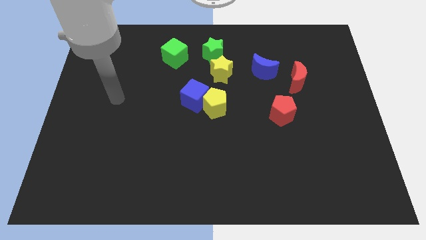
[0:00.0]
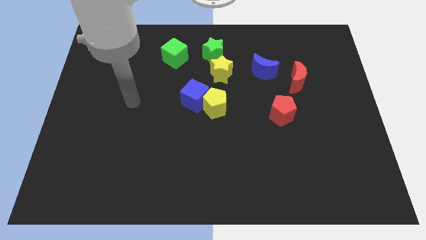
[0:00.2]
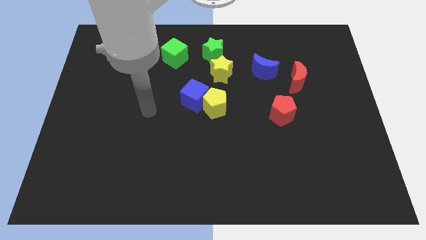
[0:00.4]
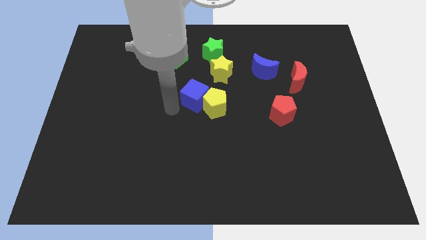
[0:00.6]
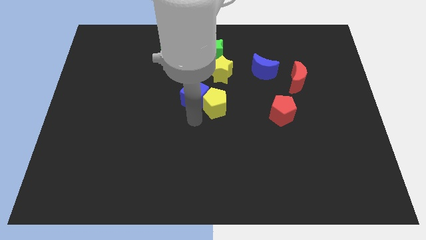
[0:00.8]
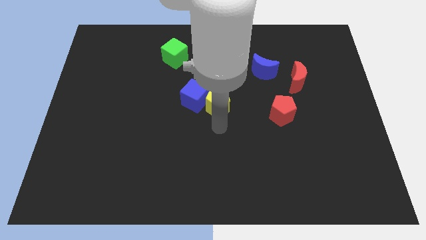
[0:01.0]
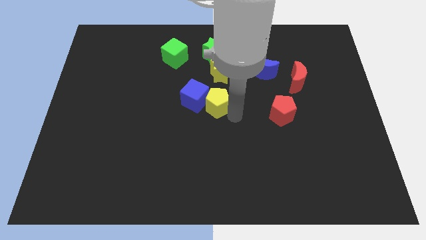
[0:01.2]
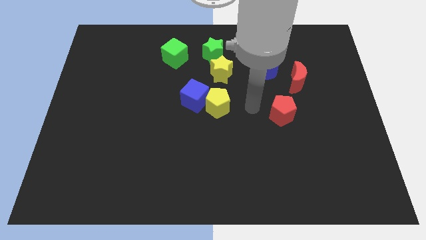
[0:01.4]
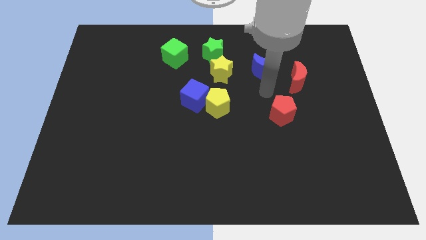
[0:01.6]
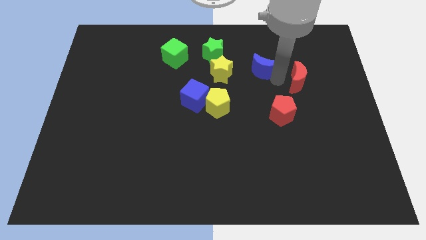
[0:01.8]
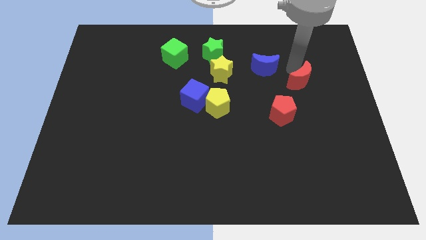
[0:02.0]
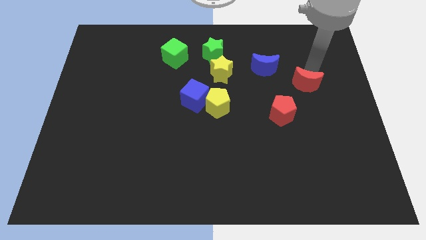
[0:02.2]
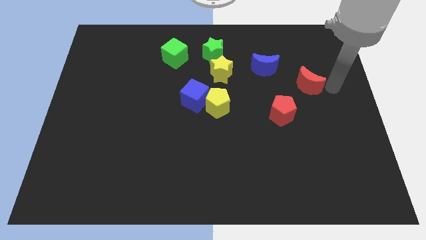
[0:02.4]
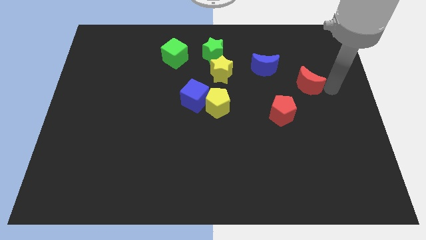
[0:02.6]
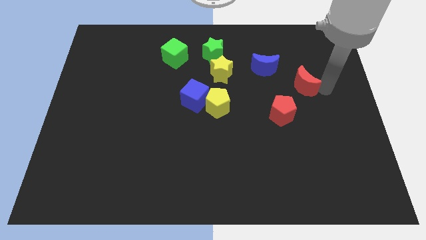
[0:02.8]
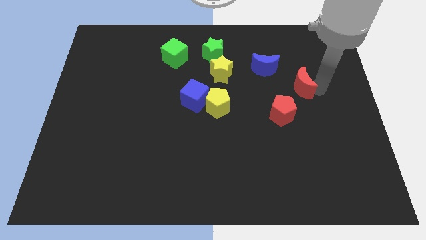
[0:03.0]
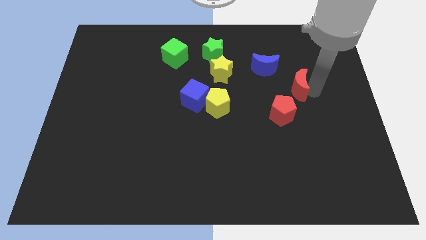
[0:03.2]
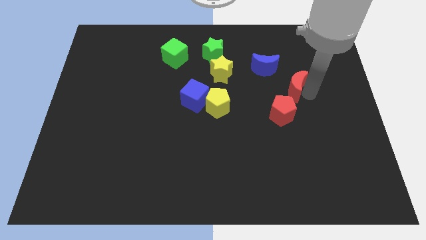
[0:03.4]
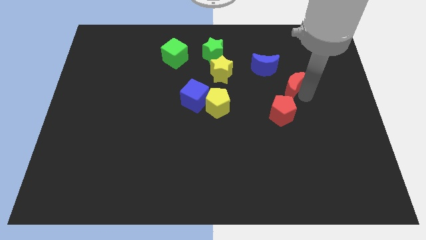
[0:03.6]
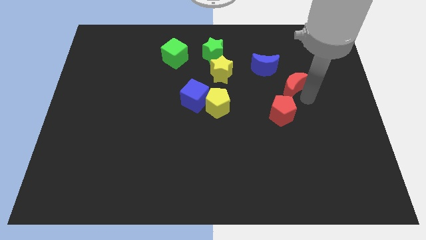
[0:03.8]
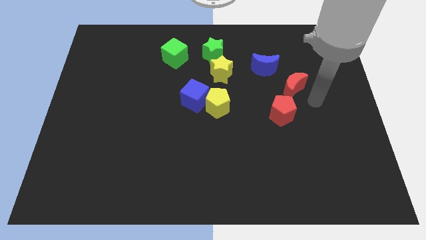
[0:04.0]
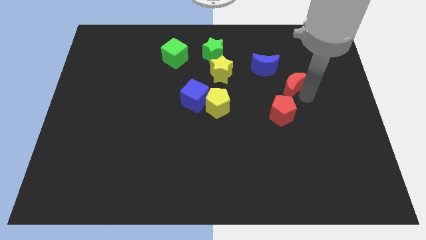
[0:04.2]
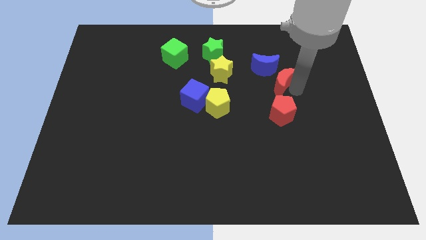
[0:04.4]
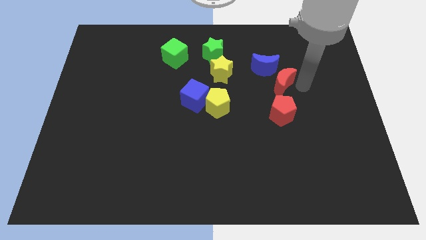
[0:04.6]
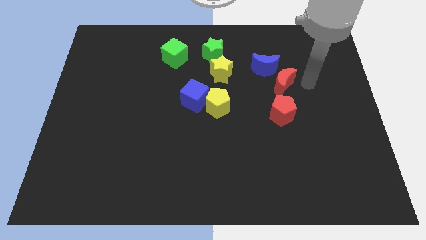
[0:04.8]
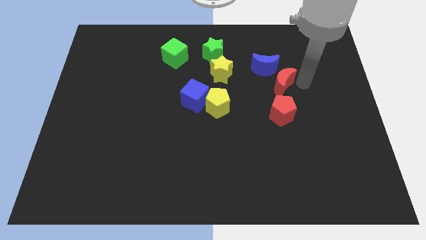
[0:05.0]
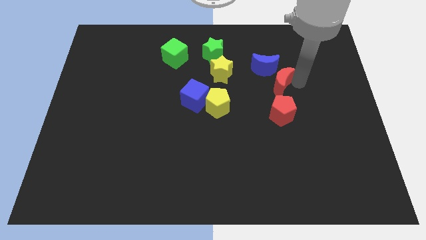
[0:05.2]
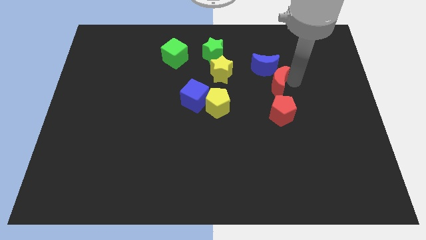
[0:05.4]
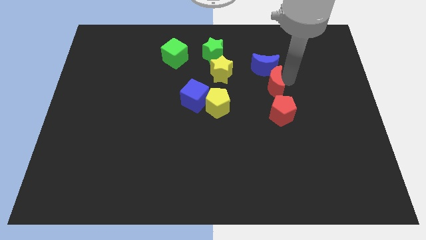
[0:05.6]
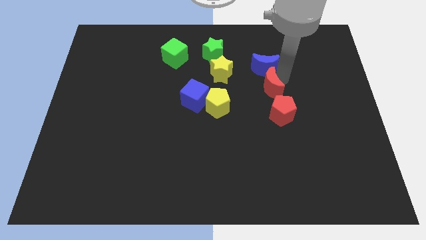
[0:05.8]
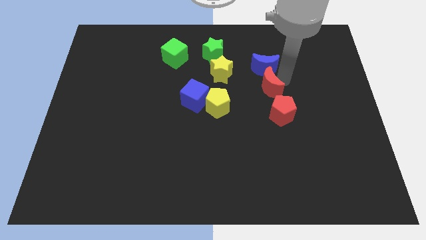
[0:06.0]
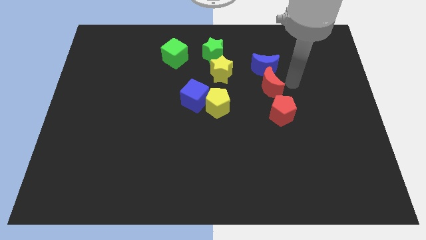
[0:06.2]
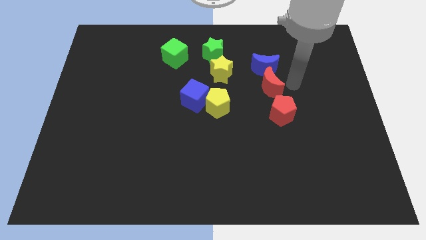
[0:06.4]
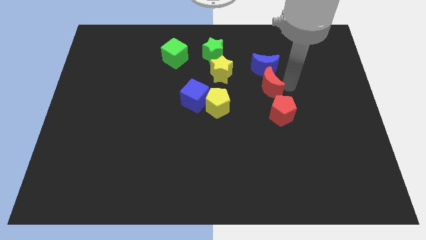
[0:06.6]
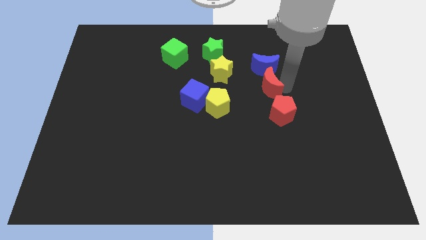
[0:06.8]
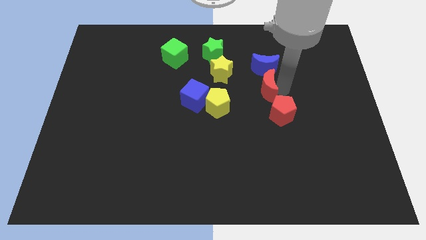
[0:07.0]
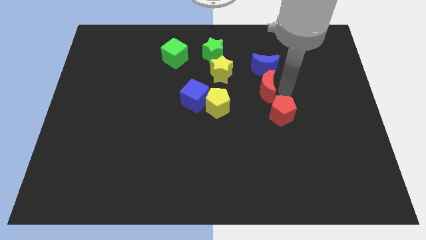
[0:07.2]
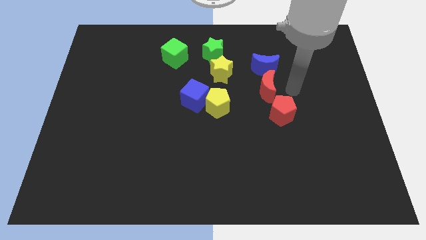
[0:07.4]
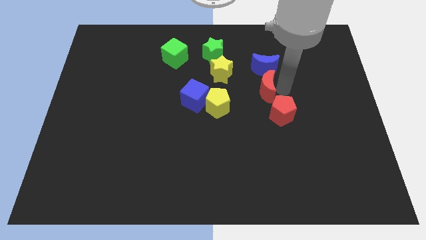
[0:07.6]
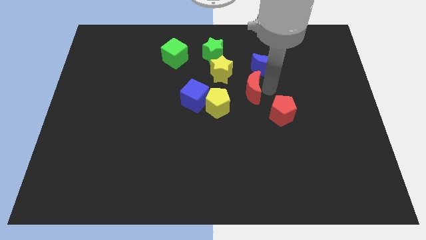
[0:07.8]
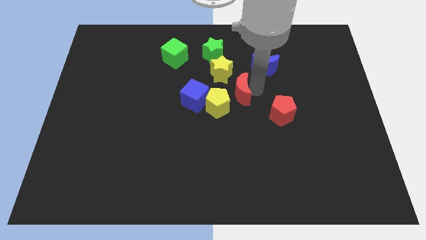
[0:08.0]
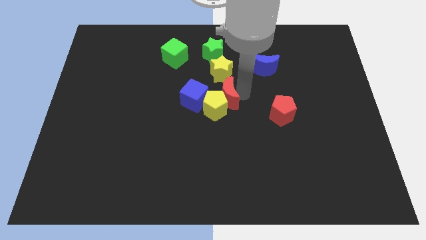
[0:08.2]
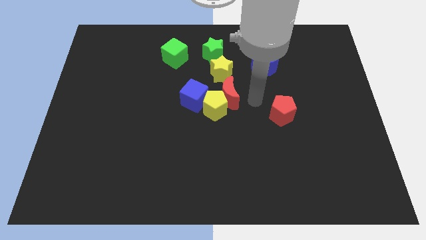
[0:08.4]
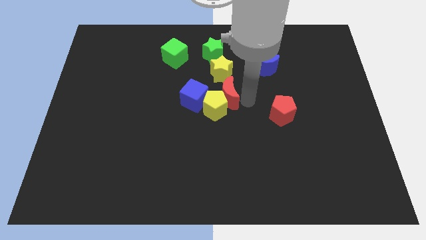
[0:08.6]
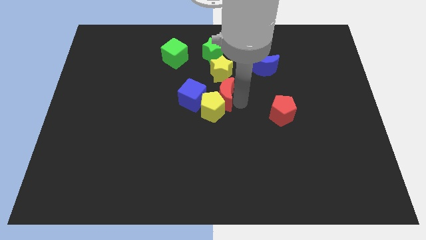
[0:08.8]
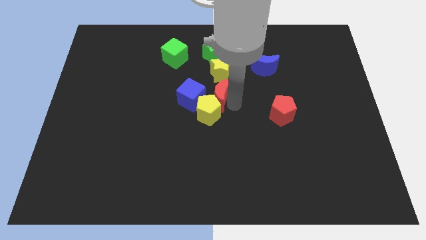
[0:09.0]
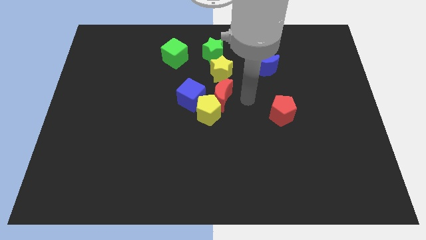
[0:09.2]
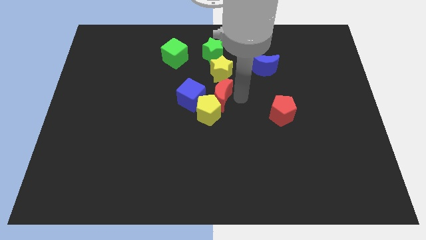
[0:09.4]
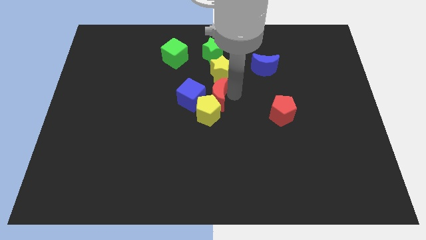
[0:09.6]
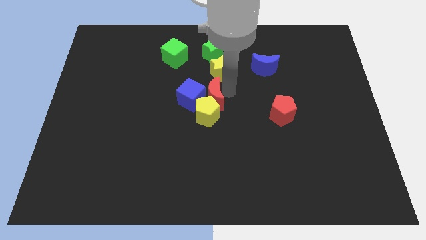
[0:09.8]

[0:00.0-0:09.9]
push the red moon to the top left side of the yellow pentagon

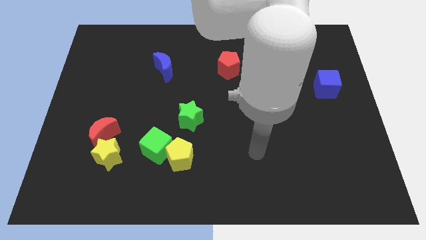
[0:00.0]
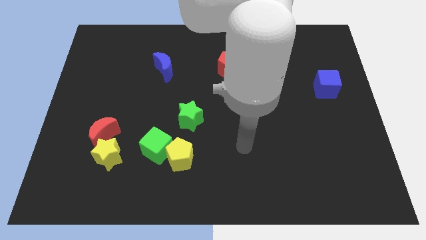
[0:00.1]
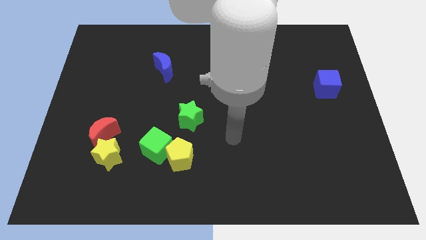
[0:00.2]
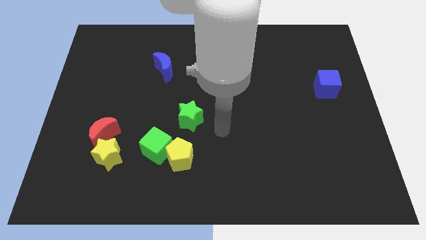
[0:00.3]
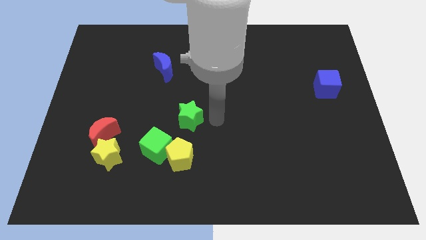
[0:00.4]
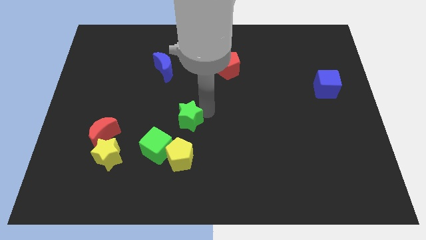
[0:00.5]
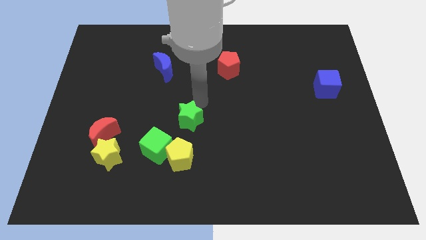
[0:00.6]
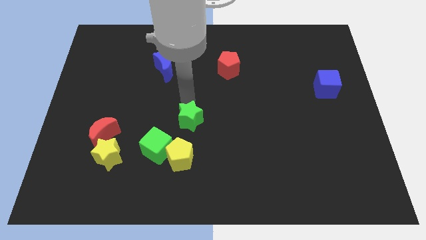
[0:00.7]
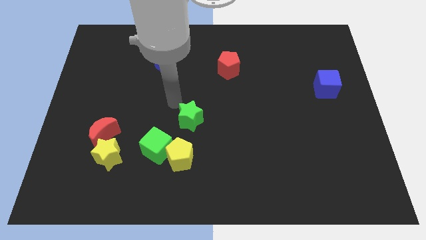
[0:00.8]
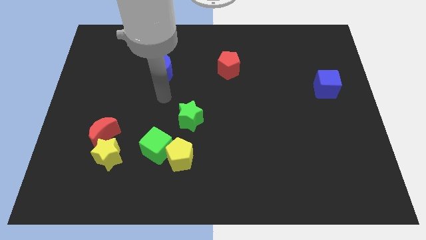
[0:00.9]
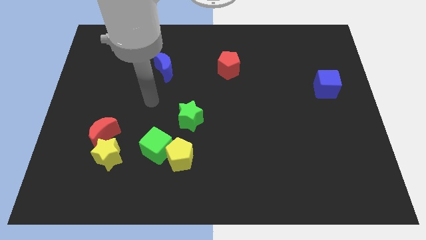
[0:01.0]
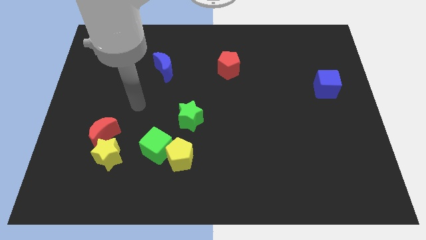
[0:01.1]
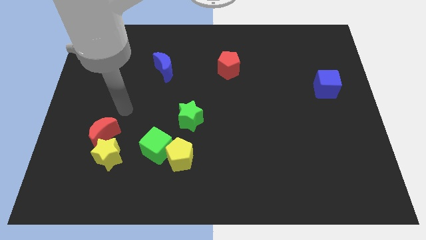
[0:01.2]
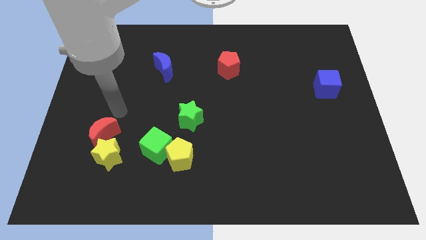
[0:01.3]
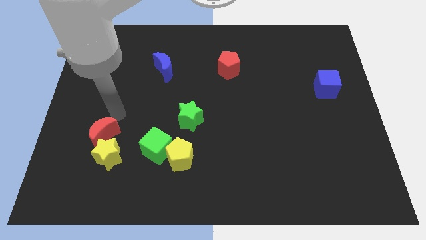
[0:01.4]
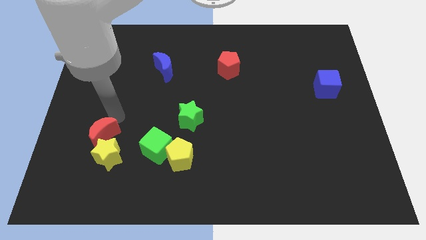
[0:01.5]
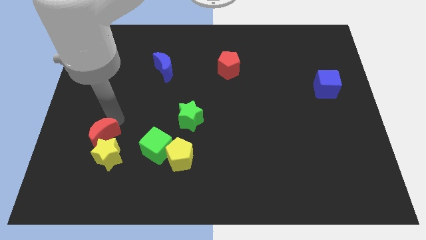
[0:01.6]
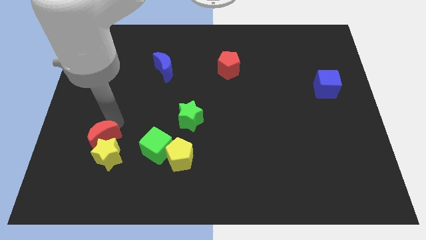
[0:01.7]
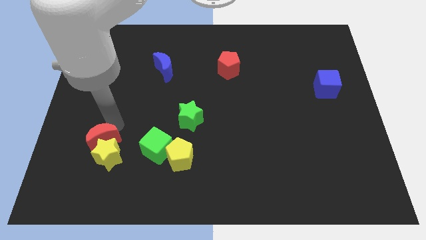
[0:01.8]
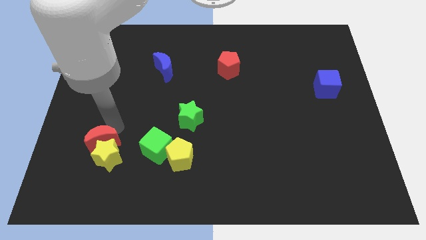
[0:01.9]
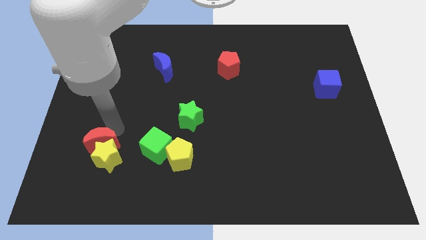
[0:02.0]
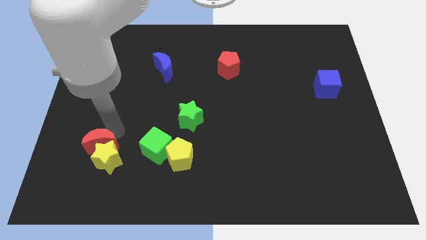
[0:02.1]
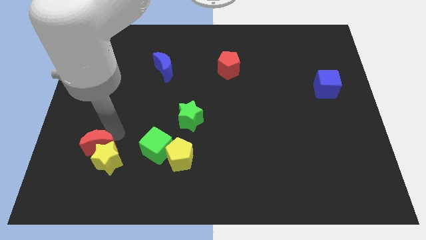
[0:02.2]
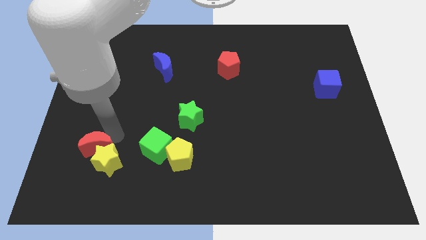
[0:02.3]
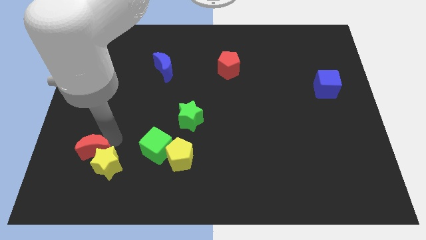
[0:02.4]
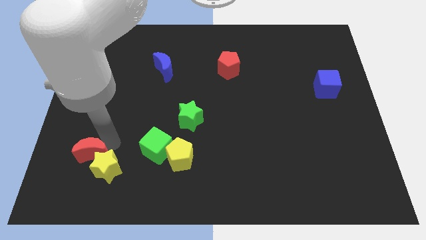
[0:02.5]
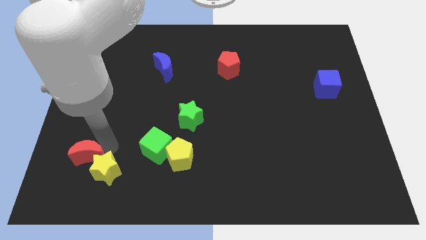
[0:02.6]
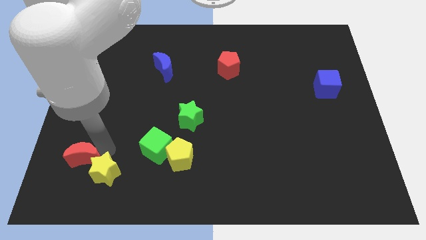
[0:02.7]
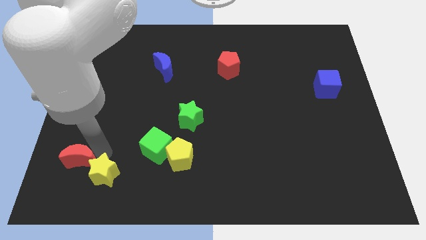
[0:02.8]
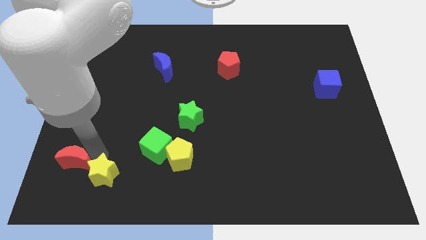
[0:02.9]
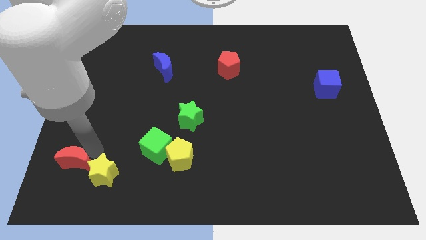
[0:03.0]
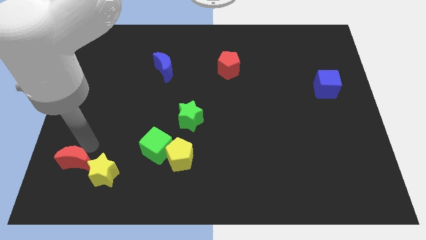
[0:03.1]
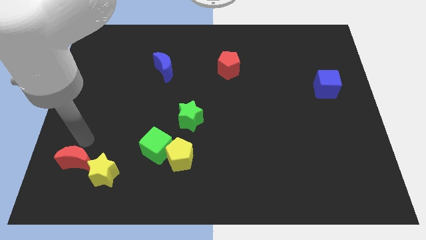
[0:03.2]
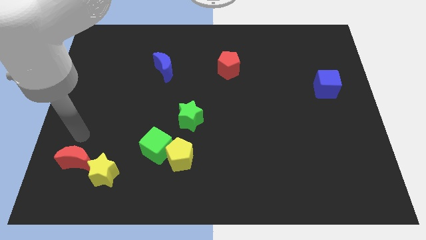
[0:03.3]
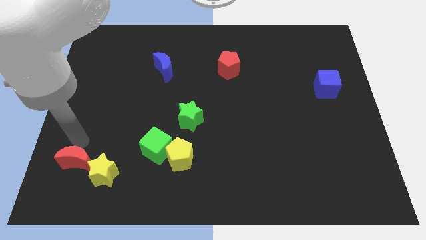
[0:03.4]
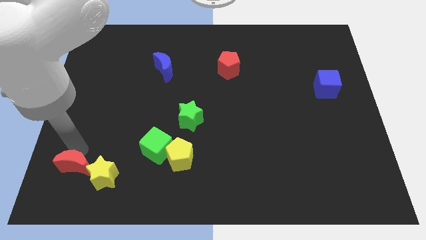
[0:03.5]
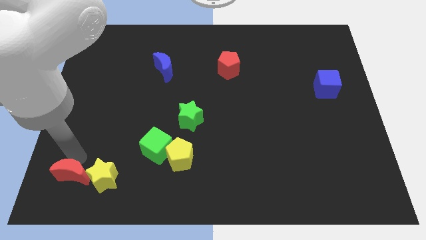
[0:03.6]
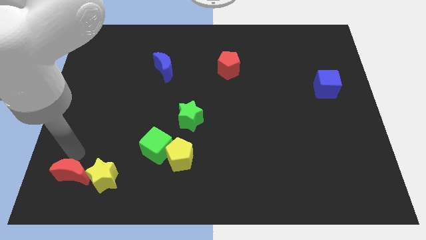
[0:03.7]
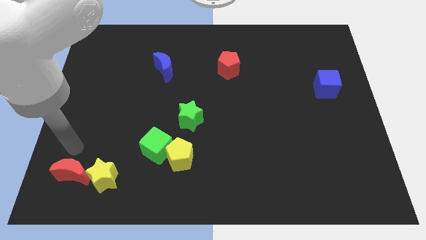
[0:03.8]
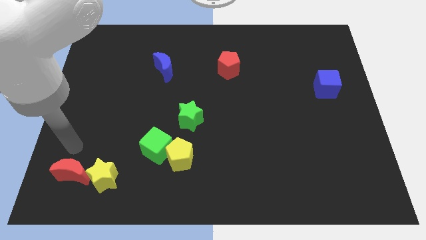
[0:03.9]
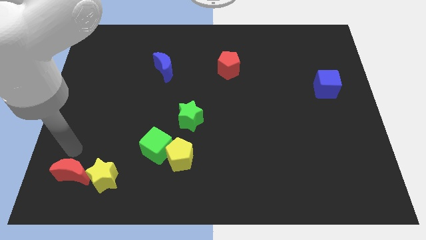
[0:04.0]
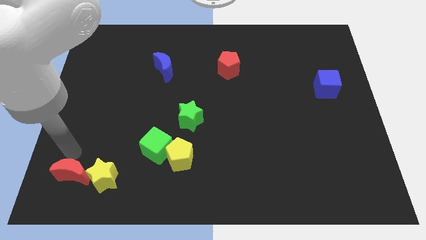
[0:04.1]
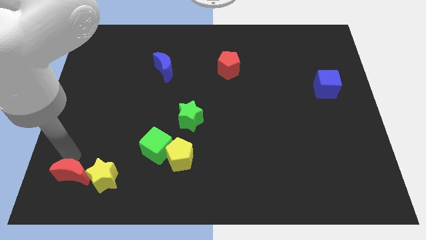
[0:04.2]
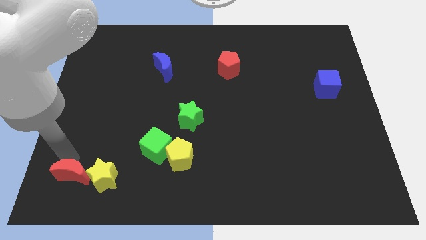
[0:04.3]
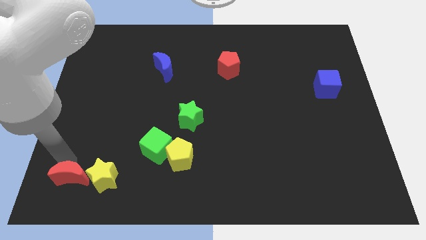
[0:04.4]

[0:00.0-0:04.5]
slide the red moon diagonally down and to the left of the yellow star
